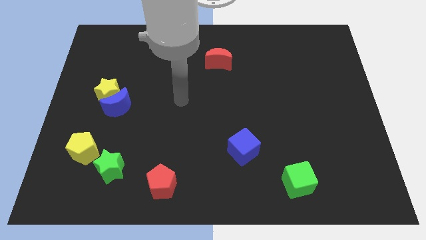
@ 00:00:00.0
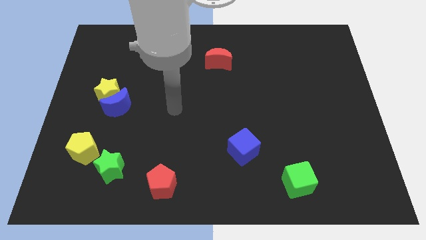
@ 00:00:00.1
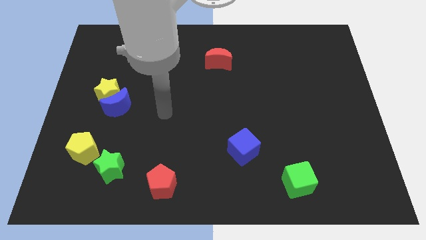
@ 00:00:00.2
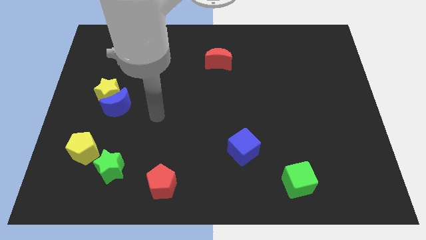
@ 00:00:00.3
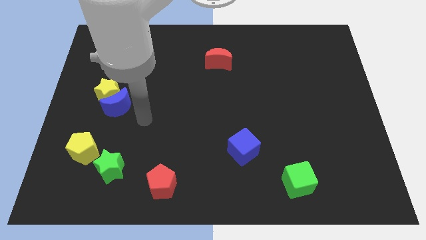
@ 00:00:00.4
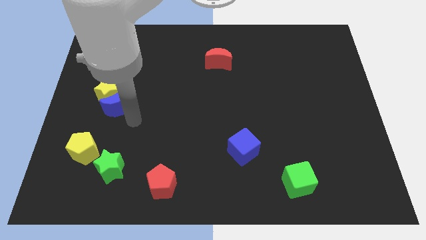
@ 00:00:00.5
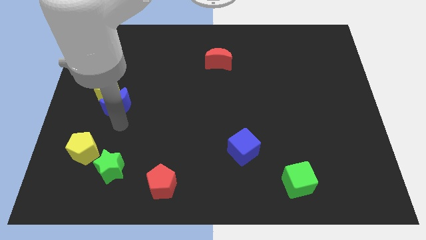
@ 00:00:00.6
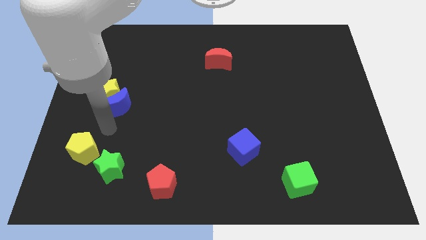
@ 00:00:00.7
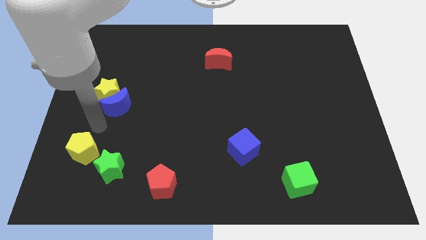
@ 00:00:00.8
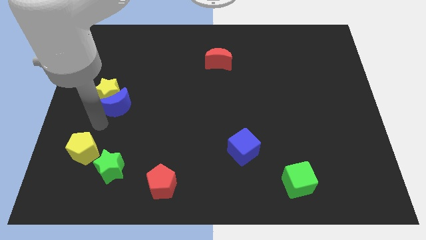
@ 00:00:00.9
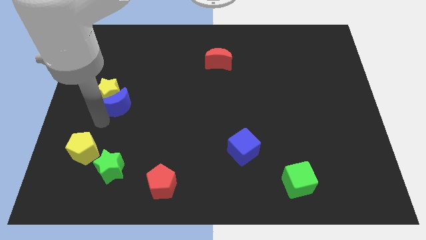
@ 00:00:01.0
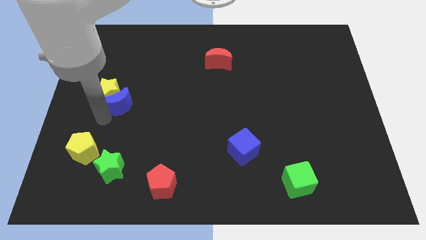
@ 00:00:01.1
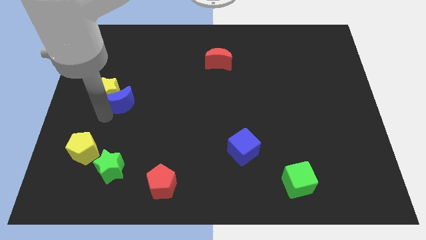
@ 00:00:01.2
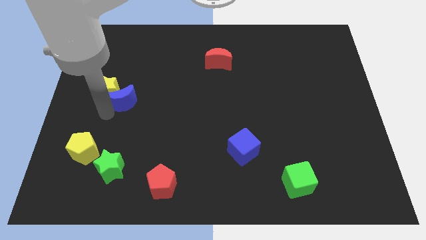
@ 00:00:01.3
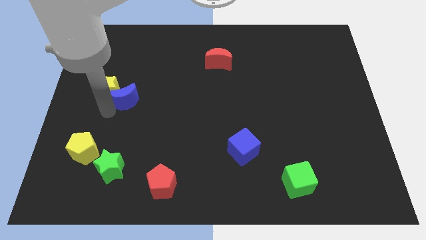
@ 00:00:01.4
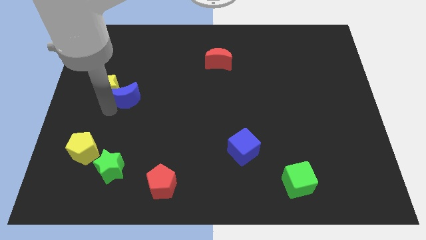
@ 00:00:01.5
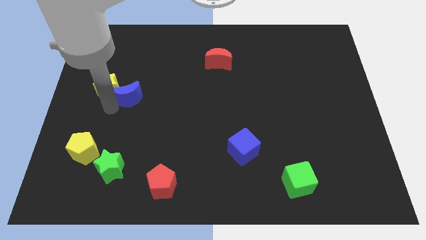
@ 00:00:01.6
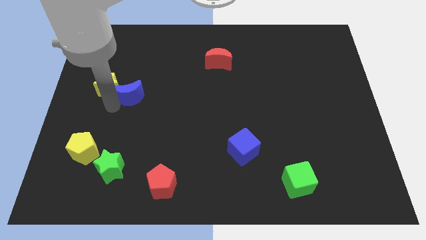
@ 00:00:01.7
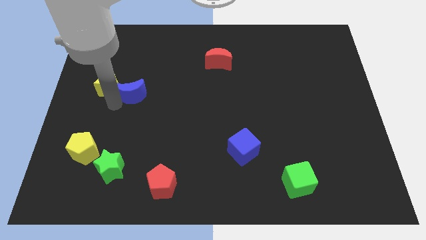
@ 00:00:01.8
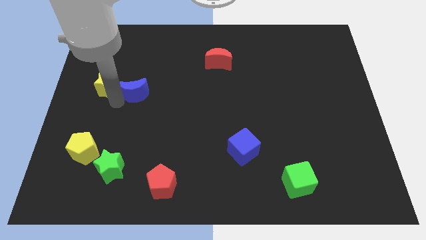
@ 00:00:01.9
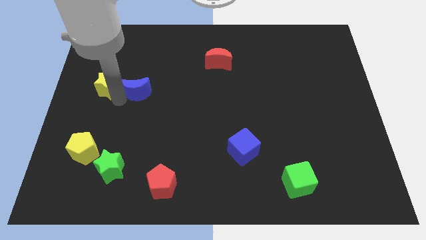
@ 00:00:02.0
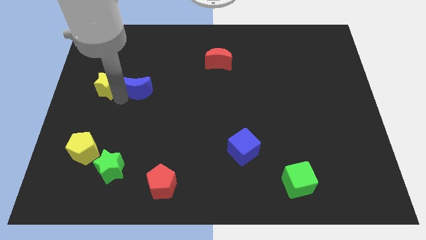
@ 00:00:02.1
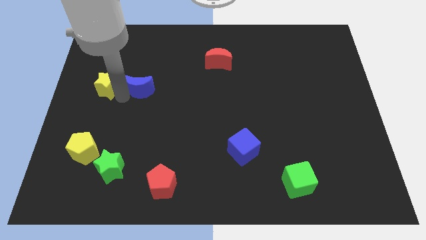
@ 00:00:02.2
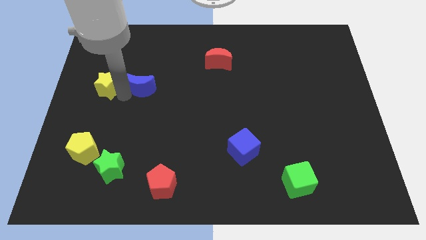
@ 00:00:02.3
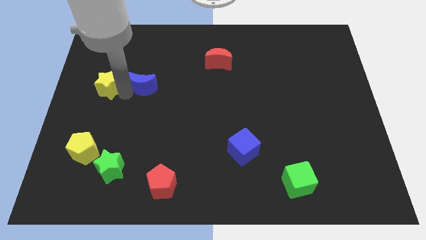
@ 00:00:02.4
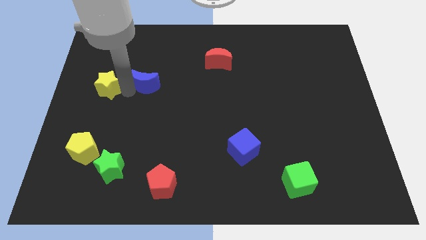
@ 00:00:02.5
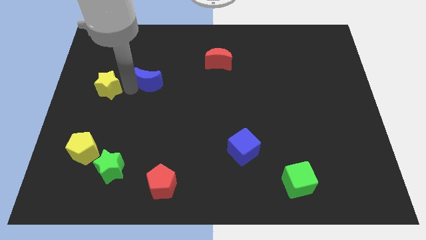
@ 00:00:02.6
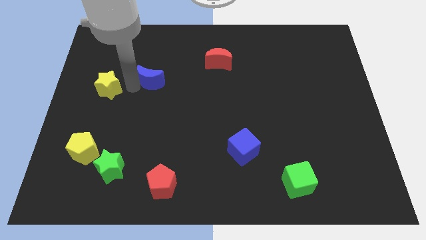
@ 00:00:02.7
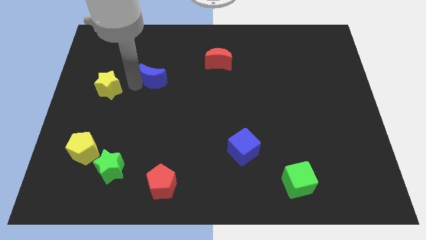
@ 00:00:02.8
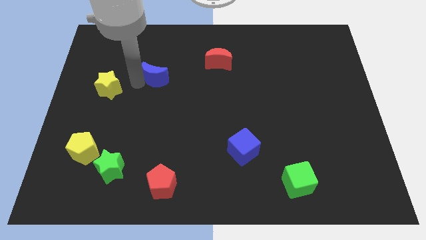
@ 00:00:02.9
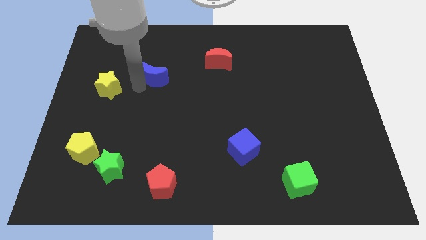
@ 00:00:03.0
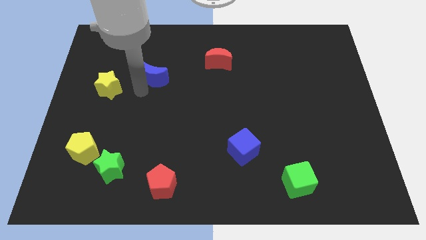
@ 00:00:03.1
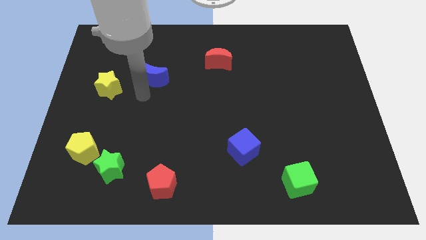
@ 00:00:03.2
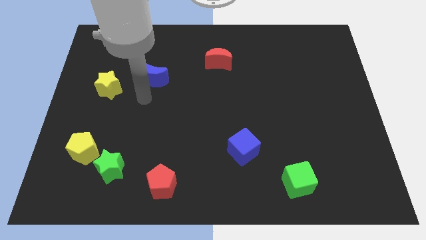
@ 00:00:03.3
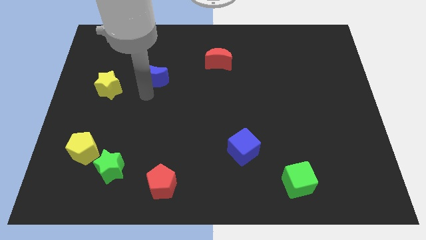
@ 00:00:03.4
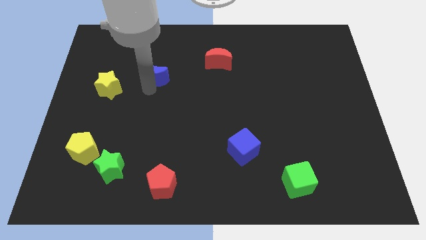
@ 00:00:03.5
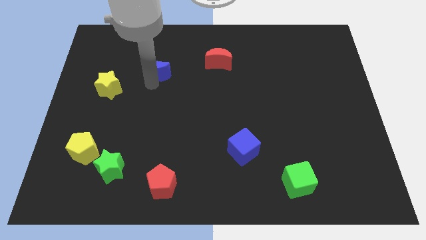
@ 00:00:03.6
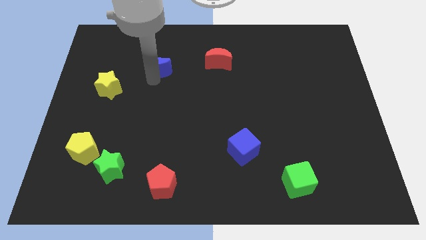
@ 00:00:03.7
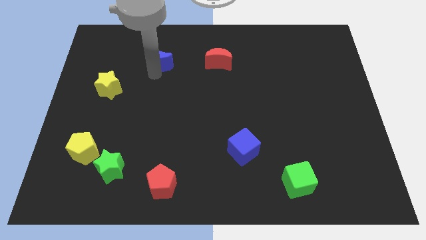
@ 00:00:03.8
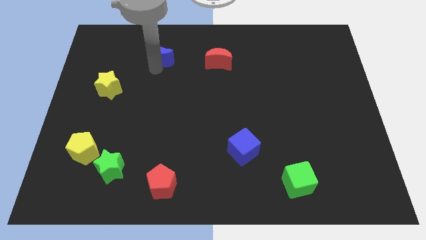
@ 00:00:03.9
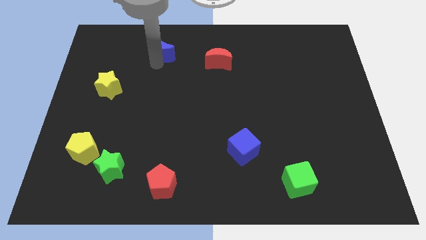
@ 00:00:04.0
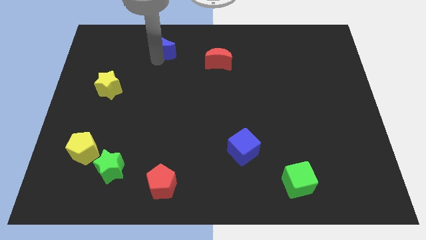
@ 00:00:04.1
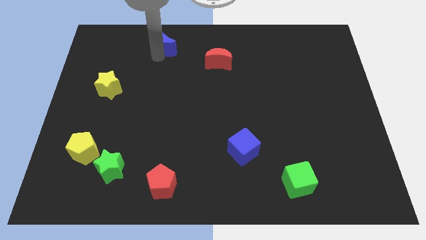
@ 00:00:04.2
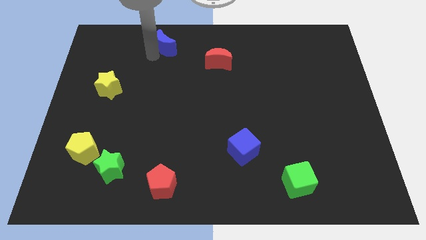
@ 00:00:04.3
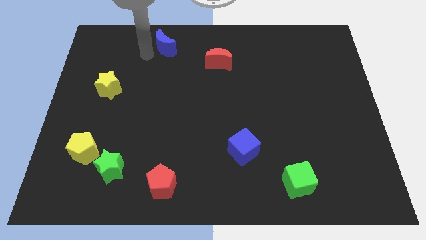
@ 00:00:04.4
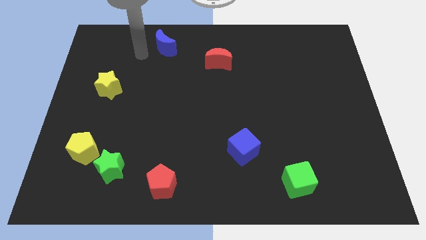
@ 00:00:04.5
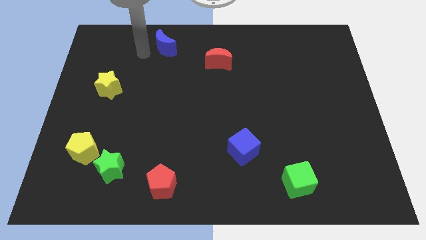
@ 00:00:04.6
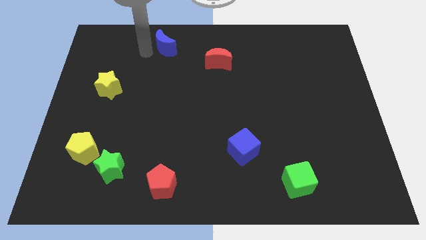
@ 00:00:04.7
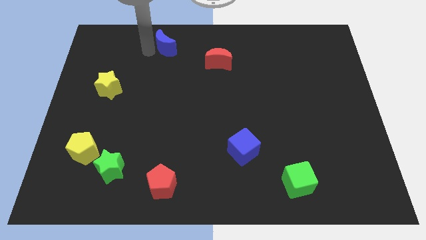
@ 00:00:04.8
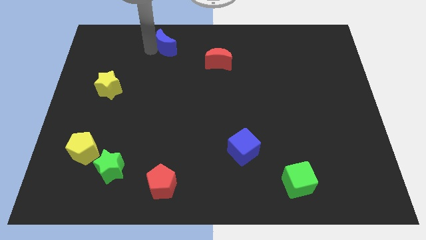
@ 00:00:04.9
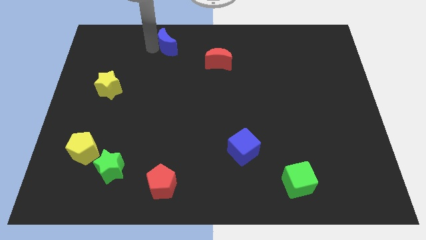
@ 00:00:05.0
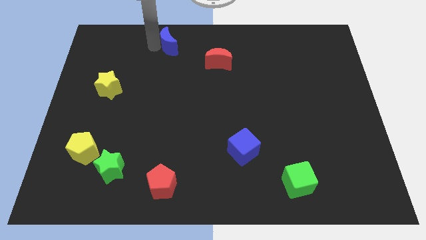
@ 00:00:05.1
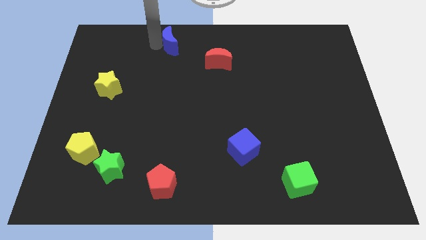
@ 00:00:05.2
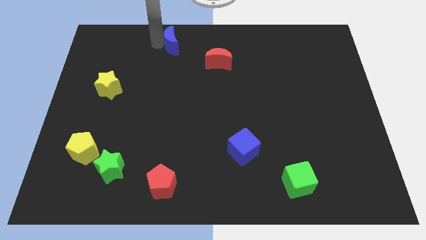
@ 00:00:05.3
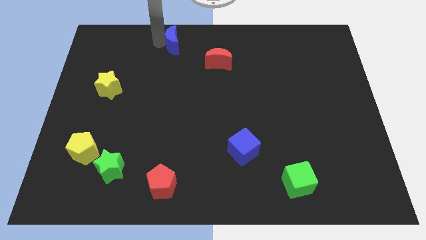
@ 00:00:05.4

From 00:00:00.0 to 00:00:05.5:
push the blue moon to the top
